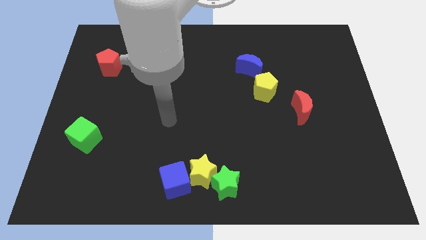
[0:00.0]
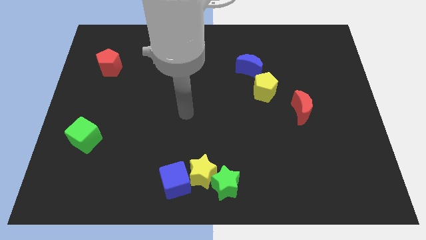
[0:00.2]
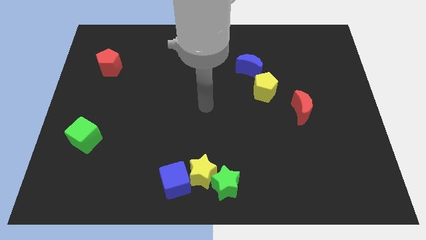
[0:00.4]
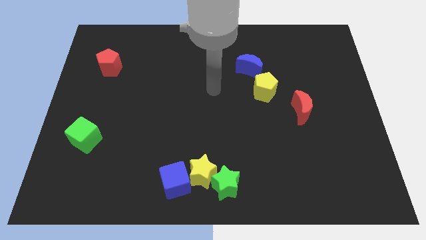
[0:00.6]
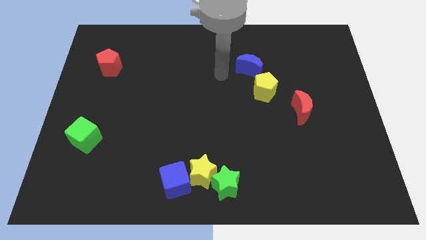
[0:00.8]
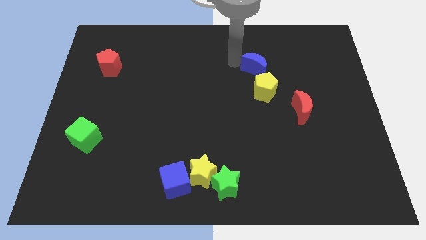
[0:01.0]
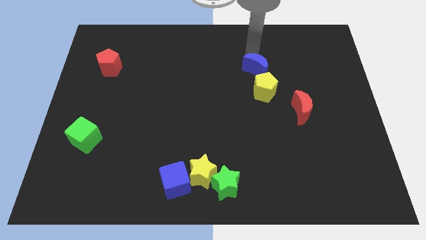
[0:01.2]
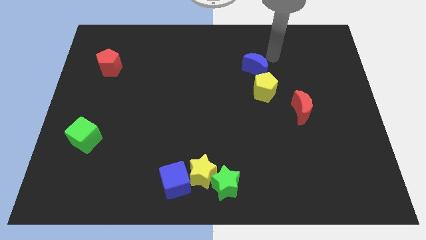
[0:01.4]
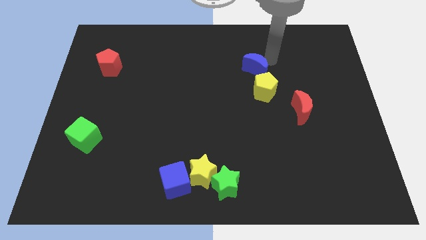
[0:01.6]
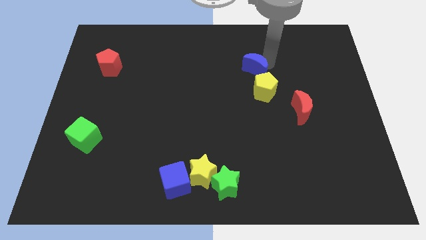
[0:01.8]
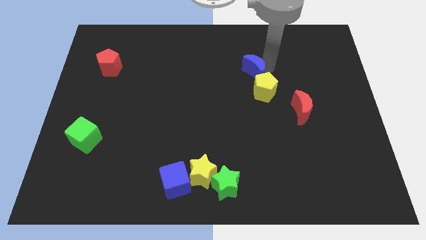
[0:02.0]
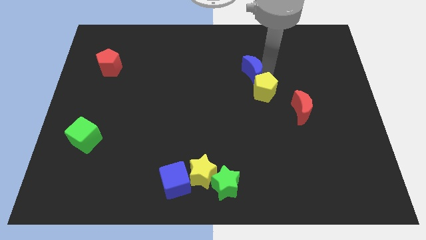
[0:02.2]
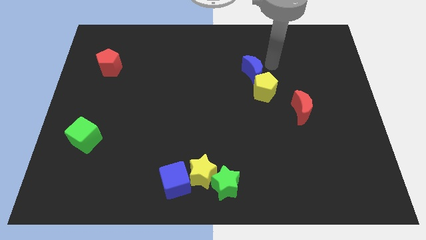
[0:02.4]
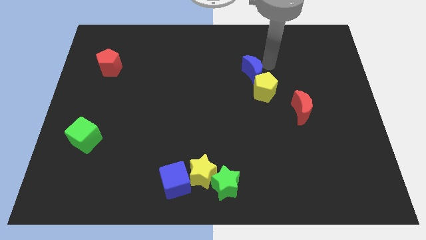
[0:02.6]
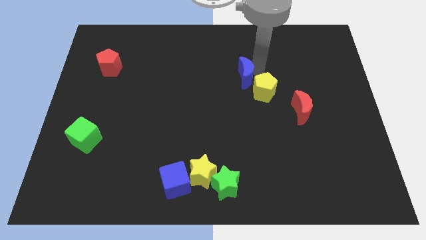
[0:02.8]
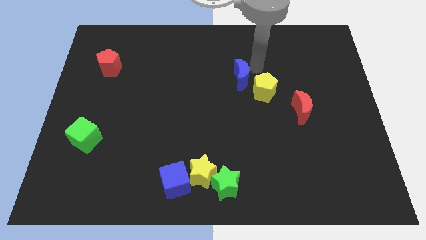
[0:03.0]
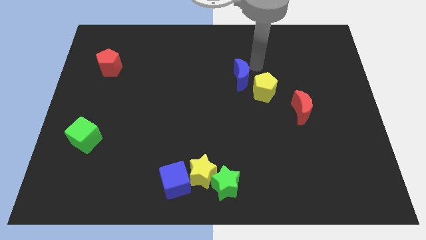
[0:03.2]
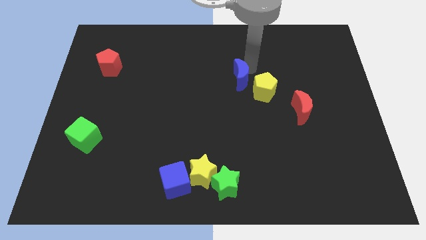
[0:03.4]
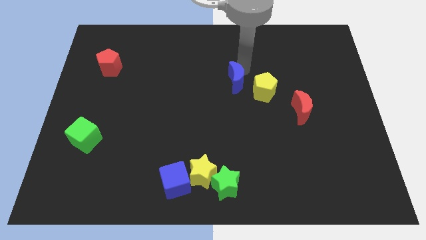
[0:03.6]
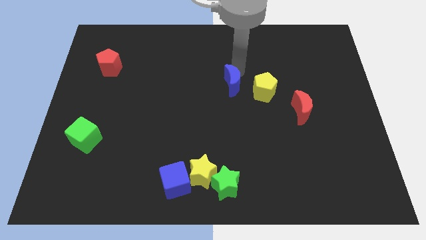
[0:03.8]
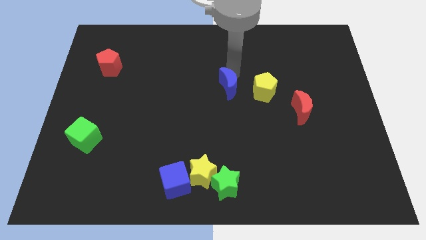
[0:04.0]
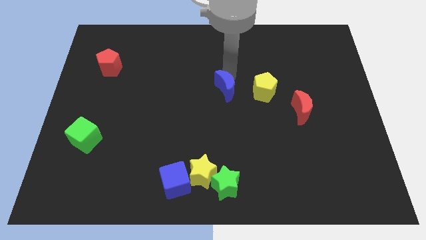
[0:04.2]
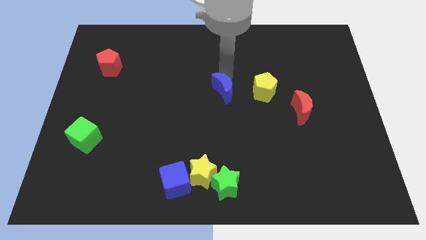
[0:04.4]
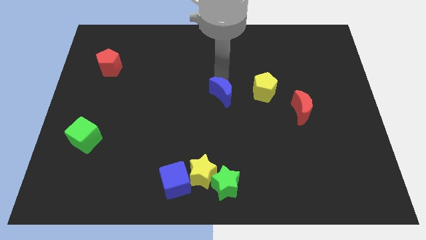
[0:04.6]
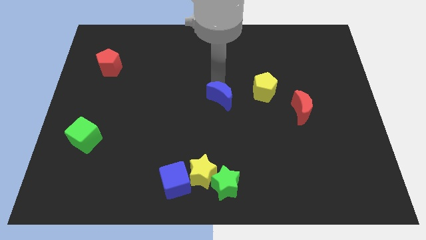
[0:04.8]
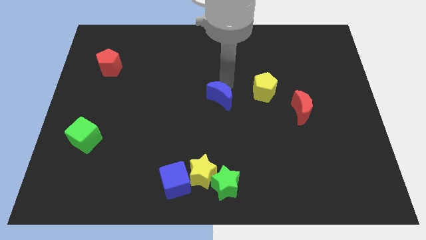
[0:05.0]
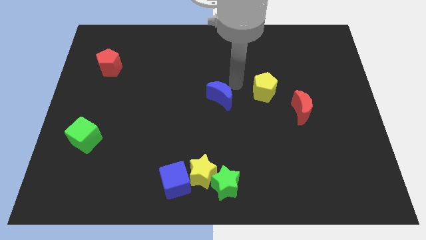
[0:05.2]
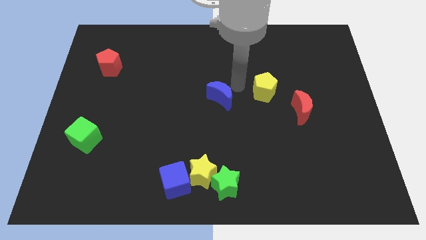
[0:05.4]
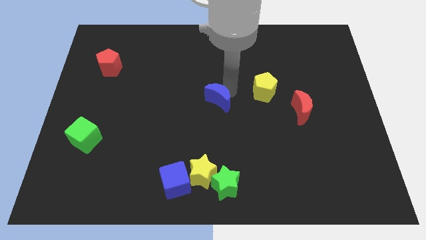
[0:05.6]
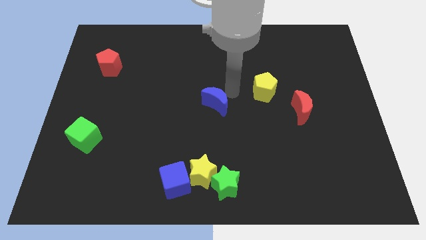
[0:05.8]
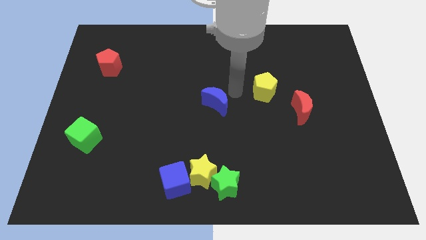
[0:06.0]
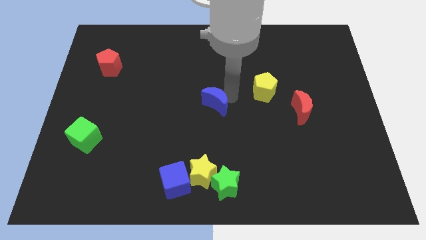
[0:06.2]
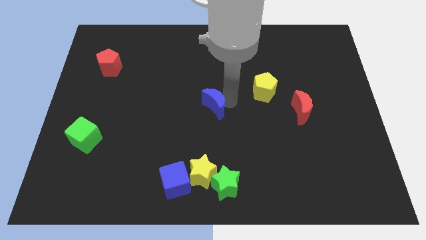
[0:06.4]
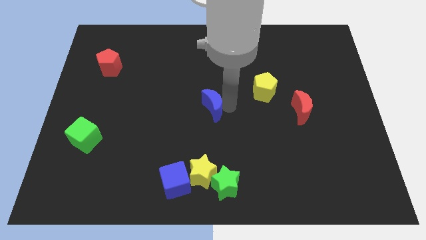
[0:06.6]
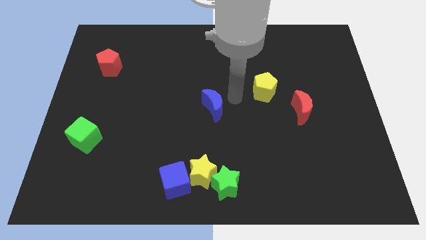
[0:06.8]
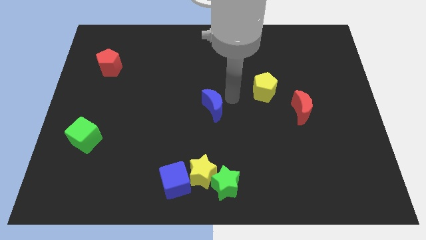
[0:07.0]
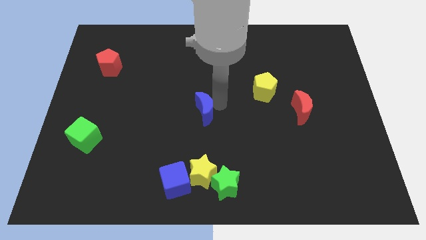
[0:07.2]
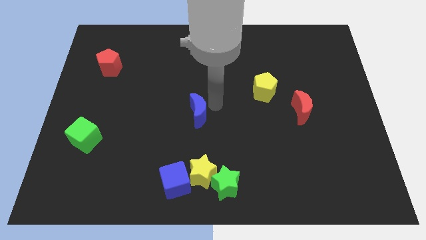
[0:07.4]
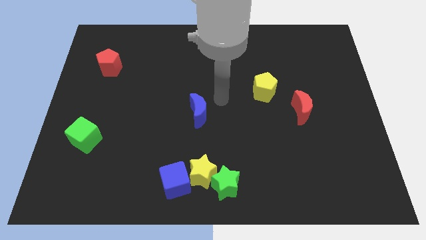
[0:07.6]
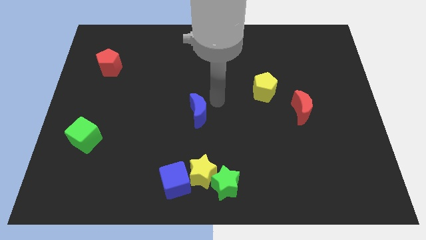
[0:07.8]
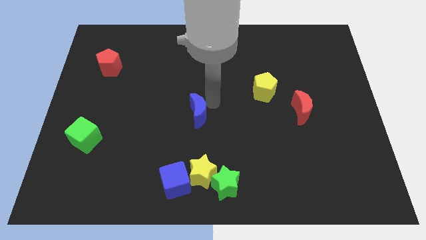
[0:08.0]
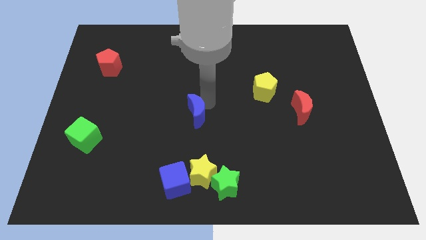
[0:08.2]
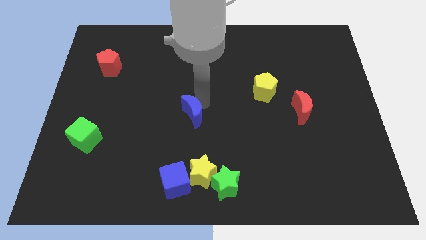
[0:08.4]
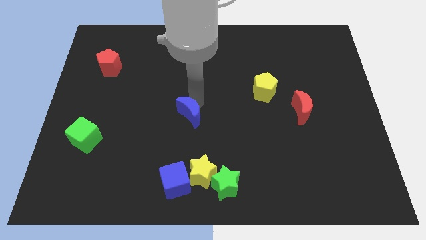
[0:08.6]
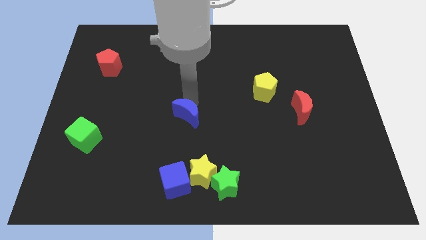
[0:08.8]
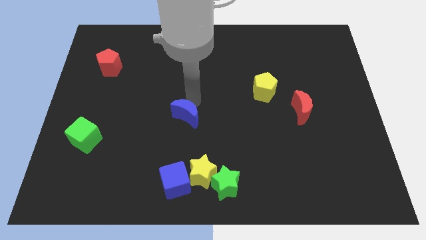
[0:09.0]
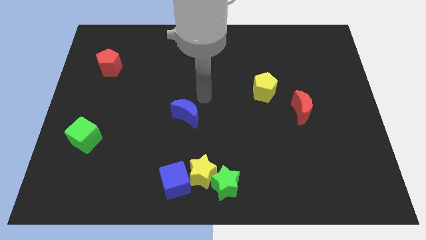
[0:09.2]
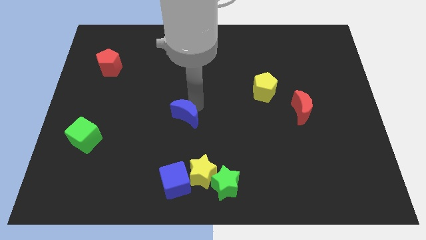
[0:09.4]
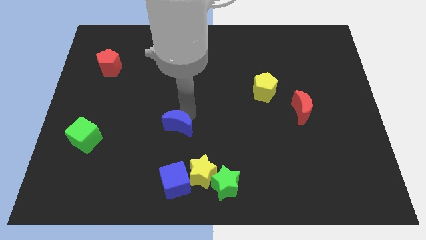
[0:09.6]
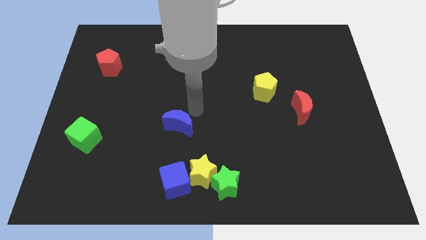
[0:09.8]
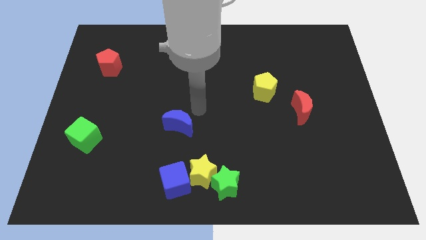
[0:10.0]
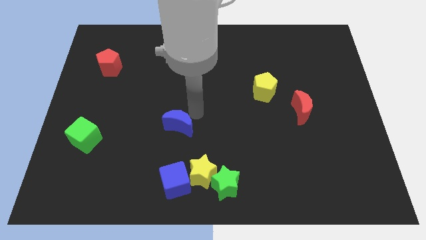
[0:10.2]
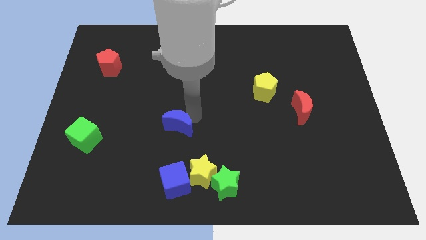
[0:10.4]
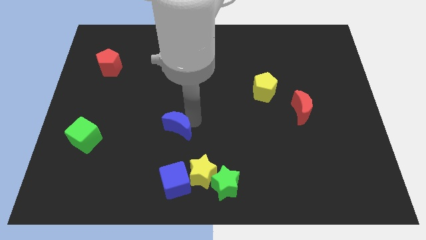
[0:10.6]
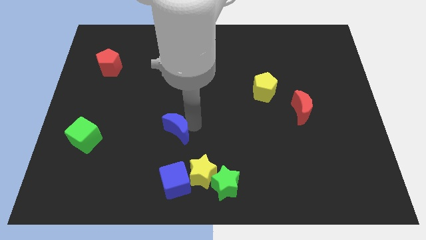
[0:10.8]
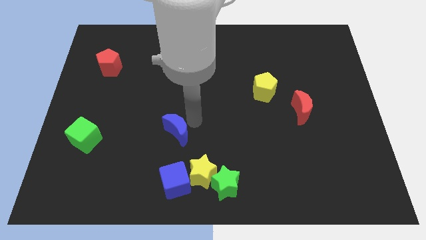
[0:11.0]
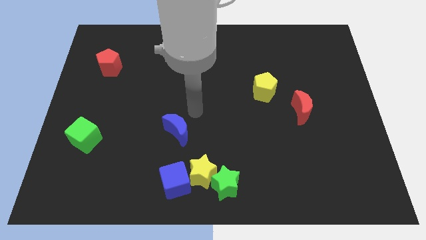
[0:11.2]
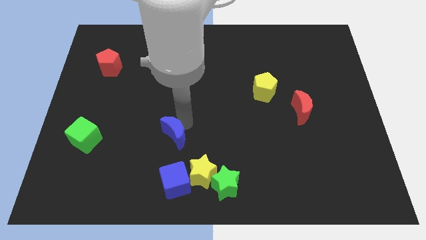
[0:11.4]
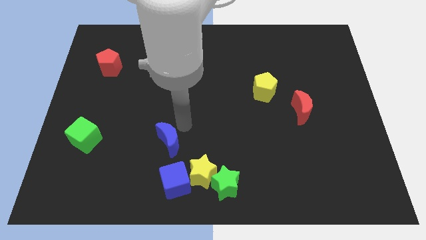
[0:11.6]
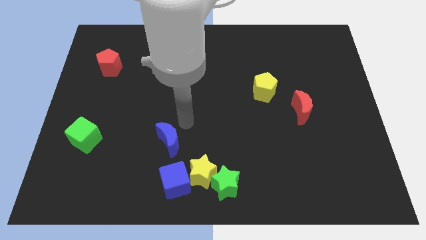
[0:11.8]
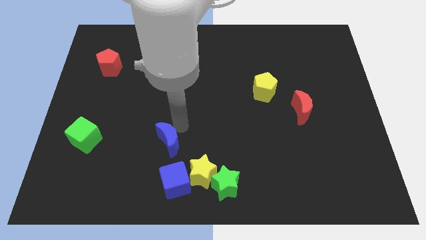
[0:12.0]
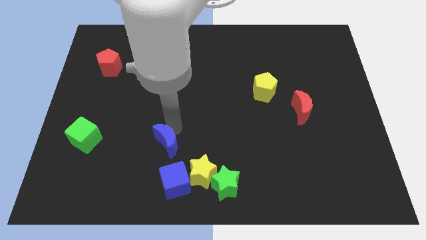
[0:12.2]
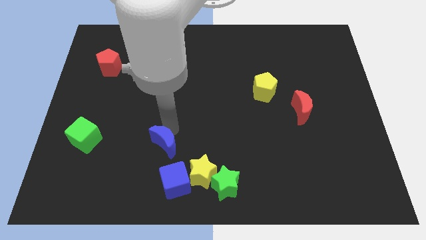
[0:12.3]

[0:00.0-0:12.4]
push the blue moon to the top left side of the blue cube
